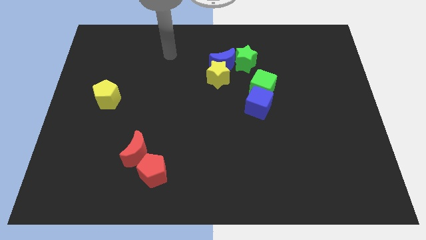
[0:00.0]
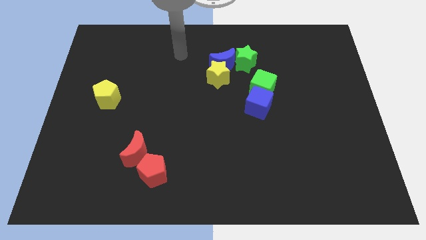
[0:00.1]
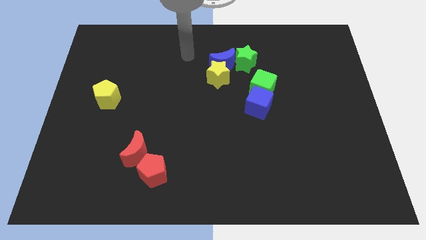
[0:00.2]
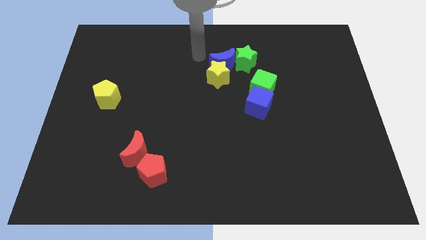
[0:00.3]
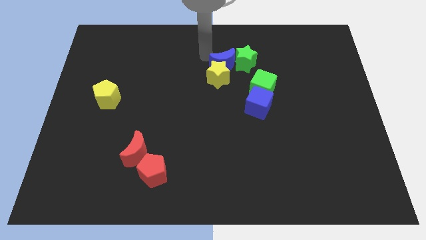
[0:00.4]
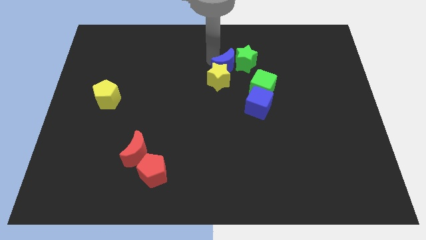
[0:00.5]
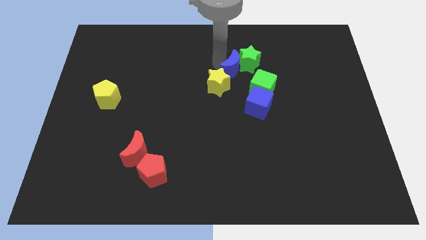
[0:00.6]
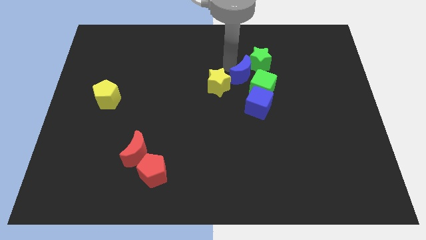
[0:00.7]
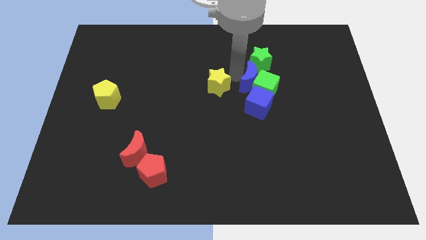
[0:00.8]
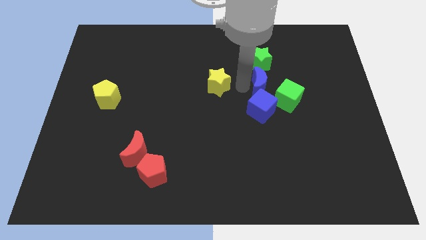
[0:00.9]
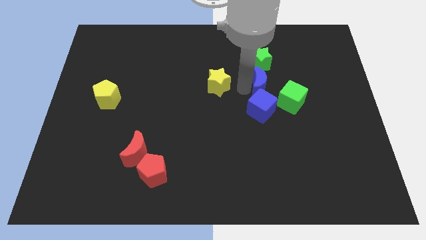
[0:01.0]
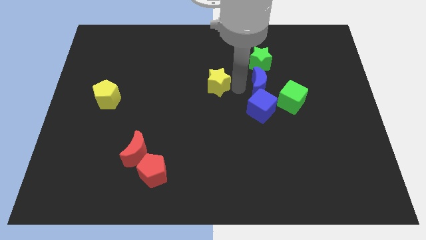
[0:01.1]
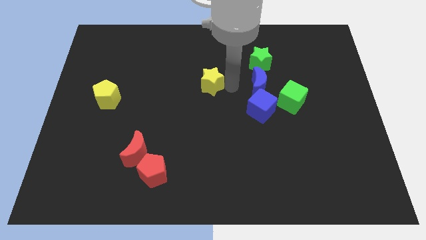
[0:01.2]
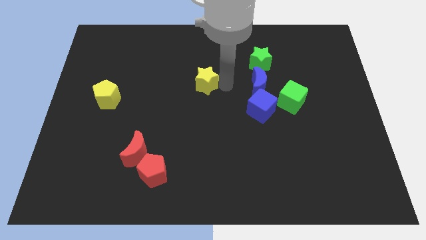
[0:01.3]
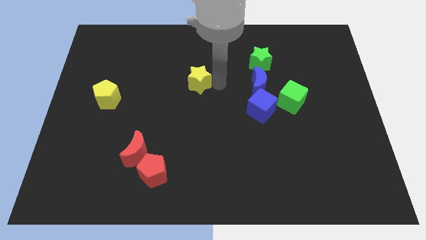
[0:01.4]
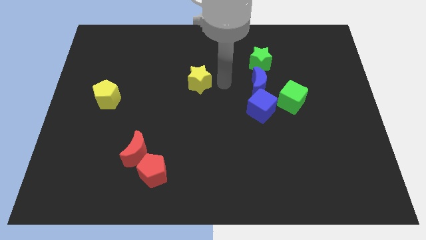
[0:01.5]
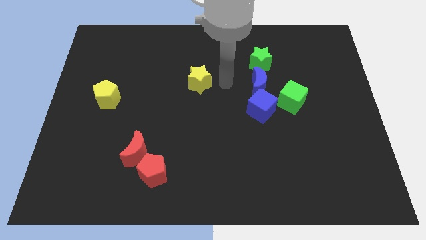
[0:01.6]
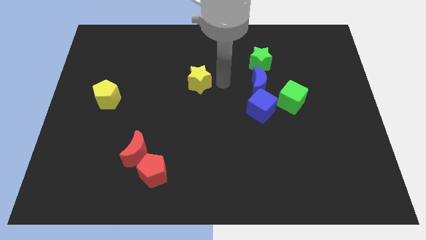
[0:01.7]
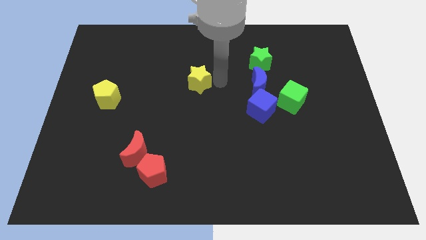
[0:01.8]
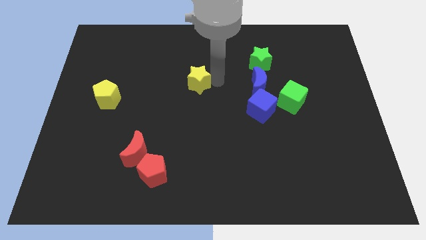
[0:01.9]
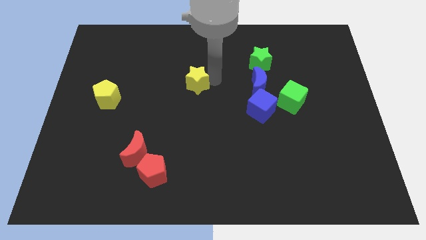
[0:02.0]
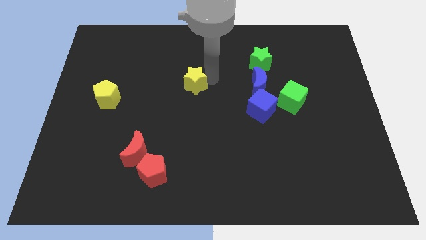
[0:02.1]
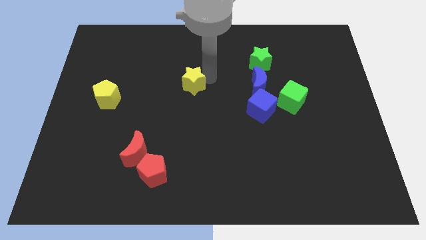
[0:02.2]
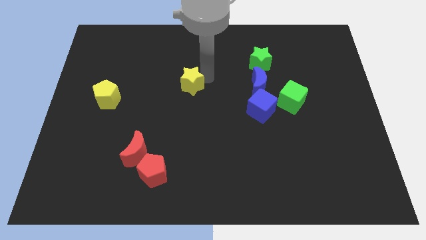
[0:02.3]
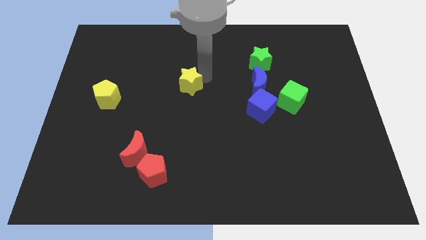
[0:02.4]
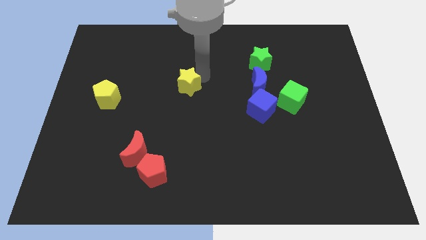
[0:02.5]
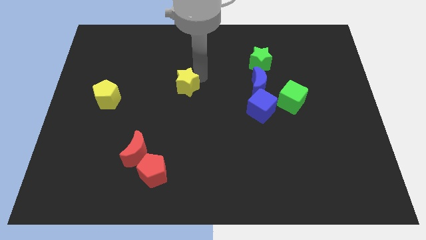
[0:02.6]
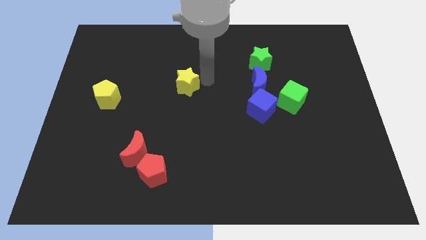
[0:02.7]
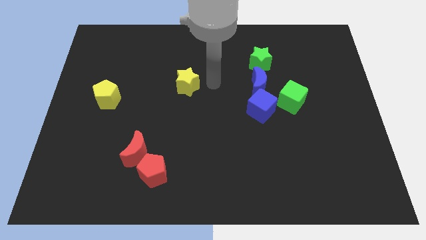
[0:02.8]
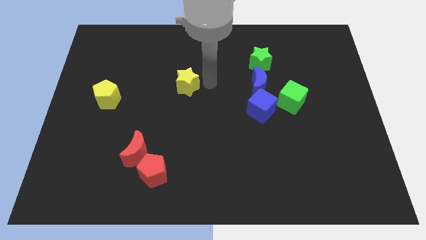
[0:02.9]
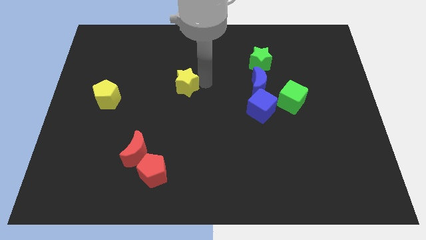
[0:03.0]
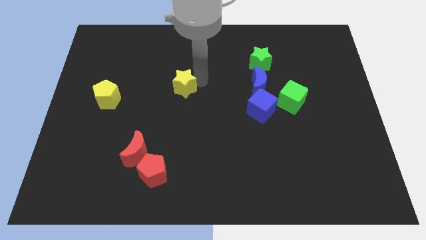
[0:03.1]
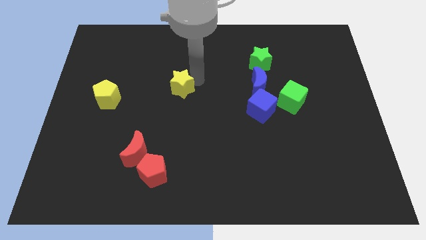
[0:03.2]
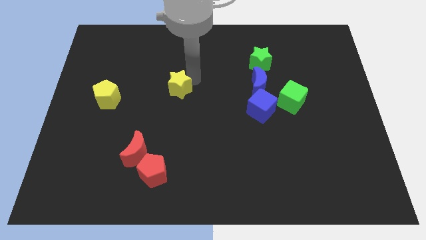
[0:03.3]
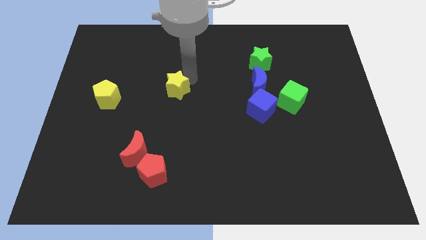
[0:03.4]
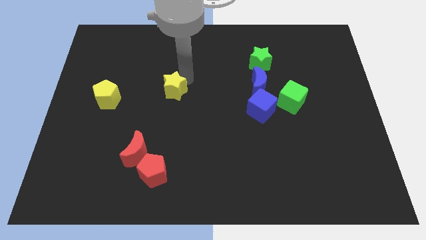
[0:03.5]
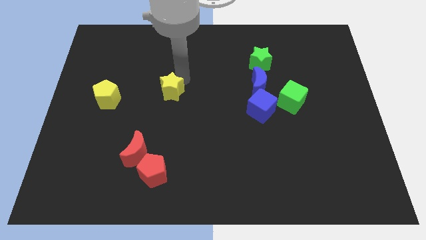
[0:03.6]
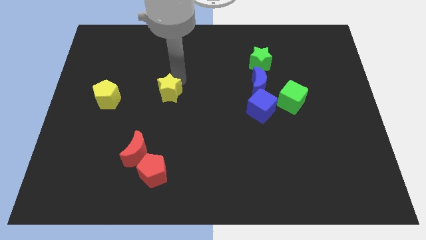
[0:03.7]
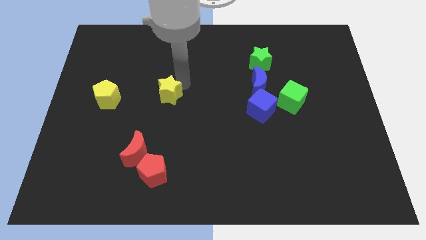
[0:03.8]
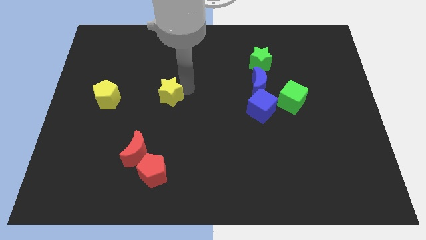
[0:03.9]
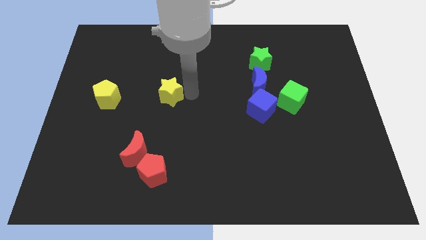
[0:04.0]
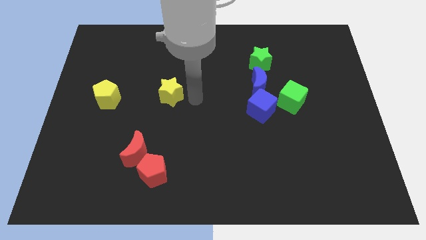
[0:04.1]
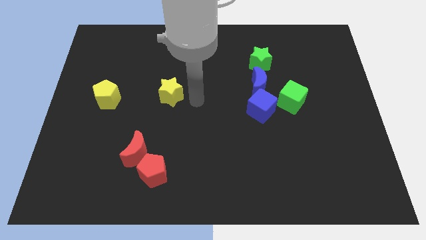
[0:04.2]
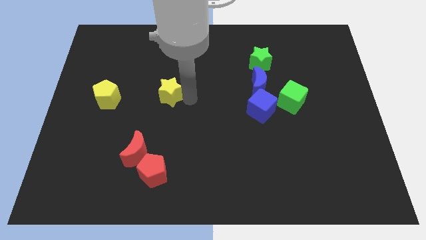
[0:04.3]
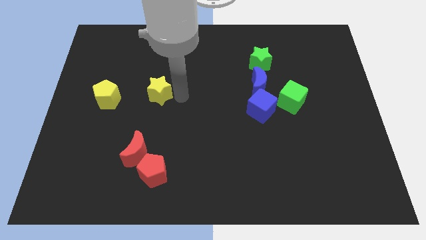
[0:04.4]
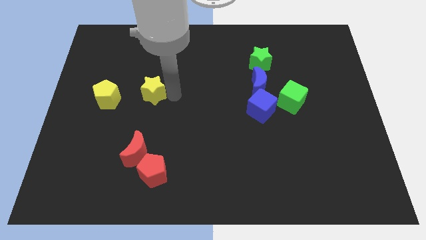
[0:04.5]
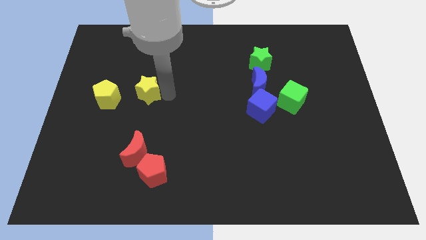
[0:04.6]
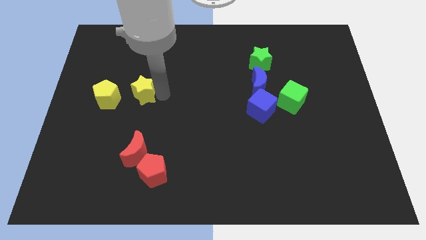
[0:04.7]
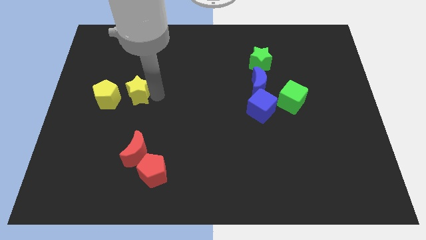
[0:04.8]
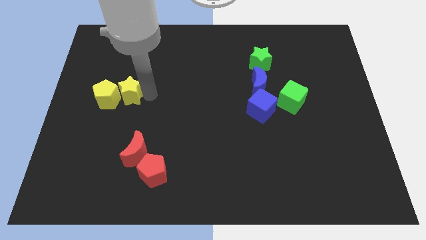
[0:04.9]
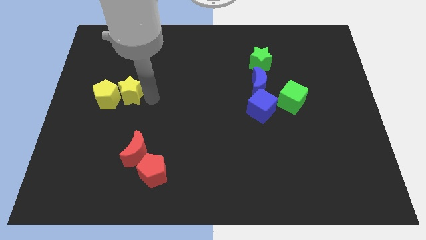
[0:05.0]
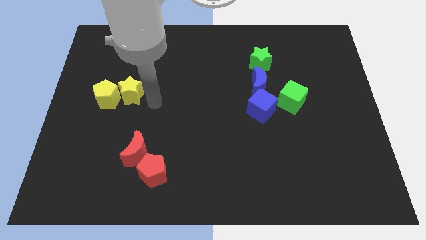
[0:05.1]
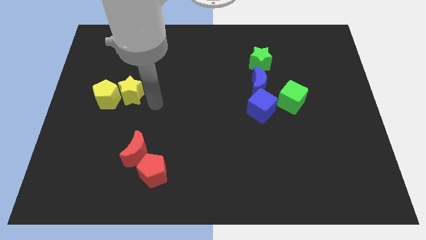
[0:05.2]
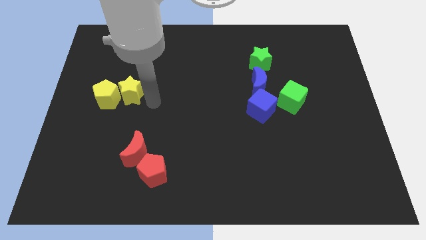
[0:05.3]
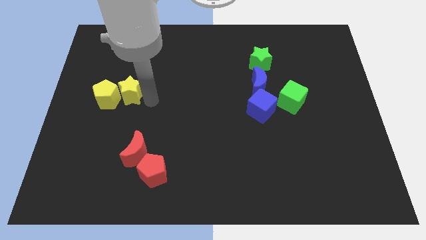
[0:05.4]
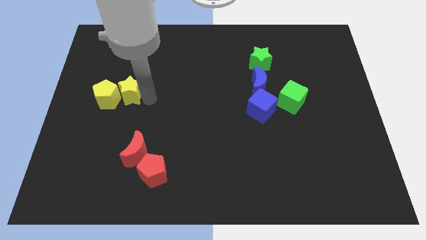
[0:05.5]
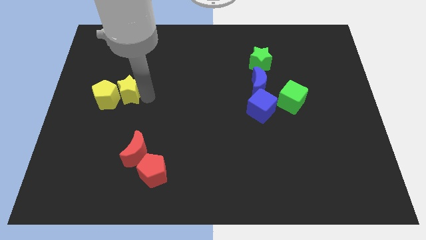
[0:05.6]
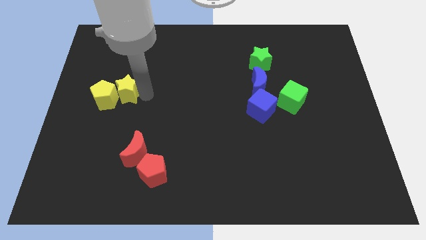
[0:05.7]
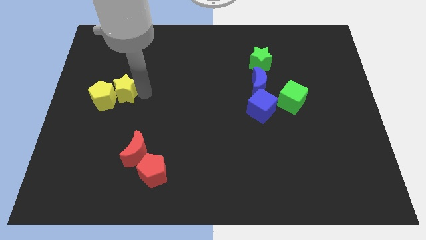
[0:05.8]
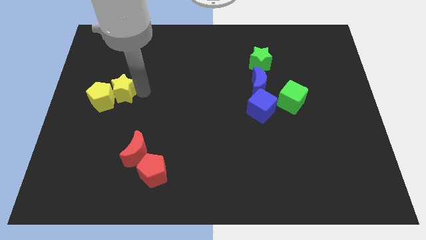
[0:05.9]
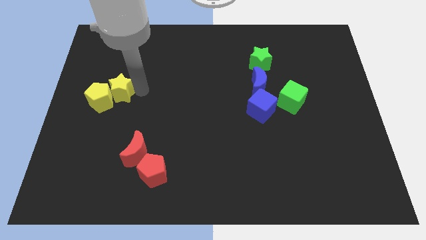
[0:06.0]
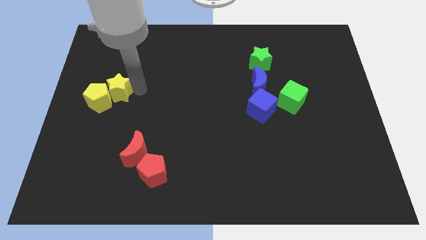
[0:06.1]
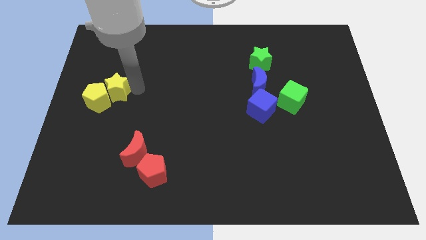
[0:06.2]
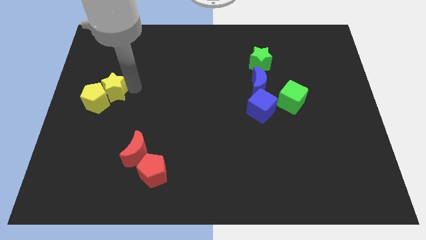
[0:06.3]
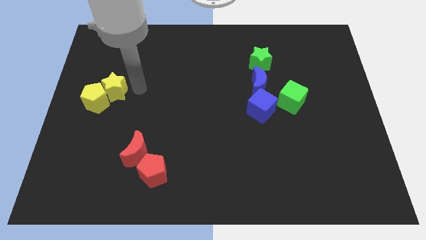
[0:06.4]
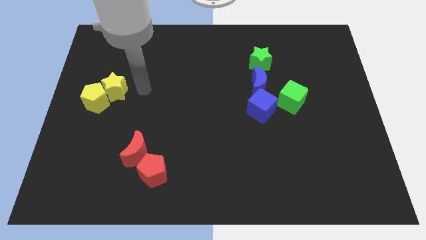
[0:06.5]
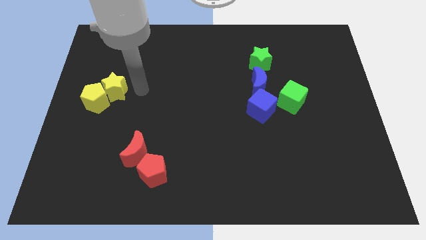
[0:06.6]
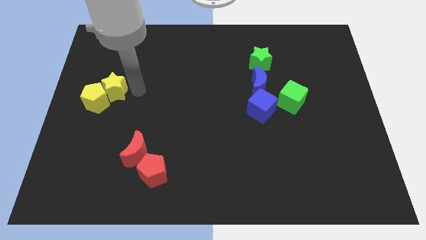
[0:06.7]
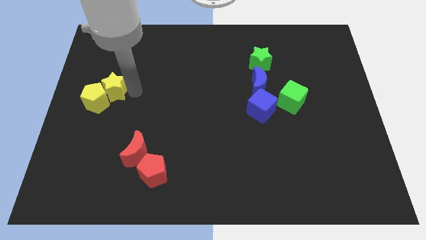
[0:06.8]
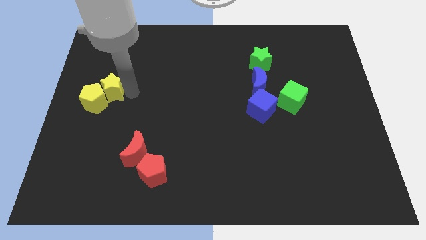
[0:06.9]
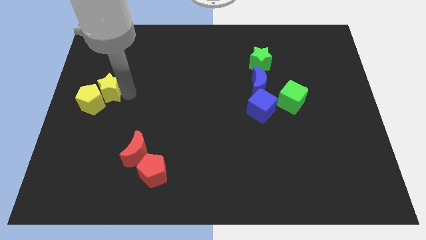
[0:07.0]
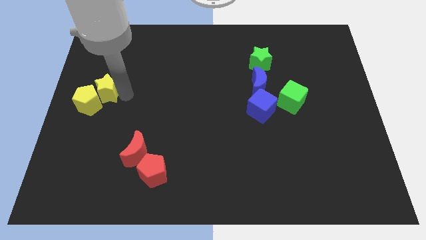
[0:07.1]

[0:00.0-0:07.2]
put the yellow star to the left side of the board
